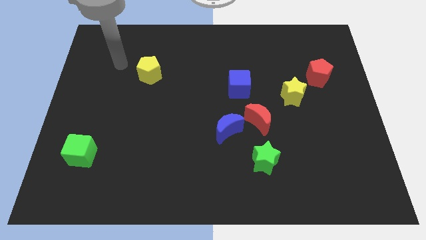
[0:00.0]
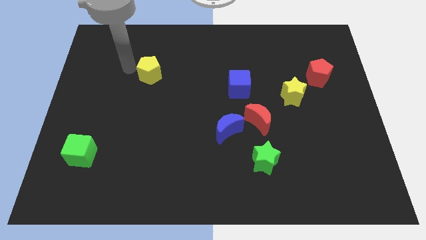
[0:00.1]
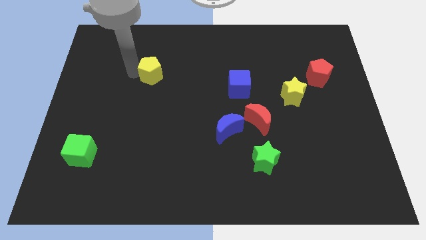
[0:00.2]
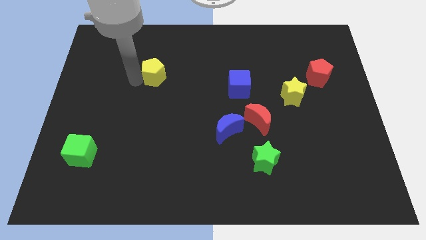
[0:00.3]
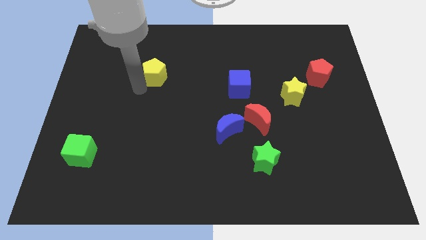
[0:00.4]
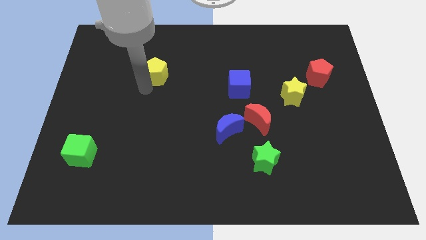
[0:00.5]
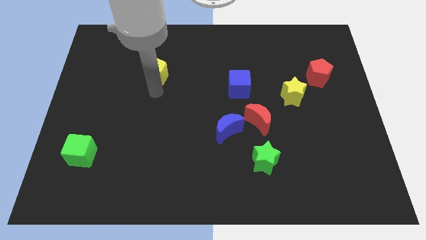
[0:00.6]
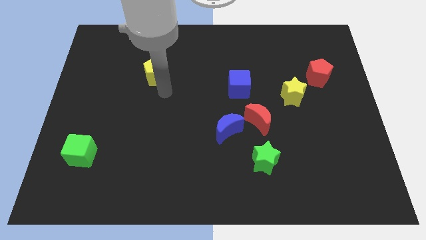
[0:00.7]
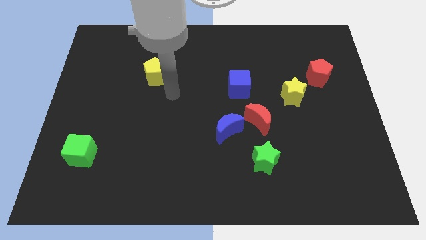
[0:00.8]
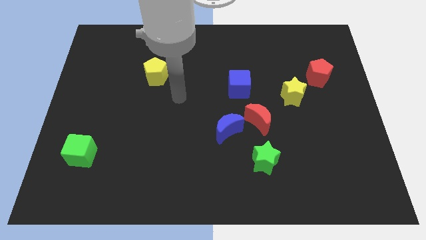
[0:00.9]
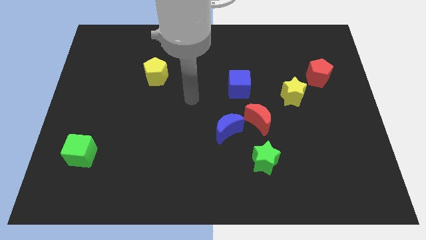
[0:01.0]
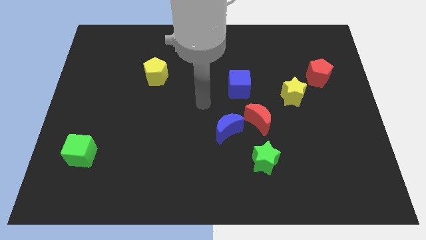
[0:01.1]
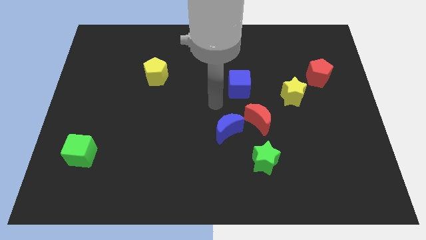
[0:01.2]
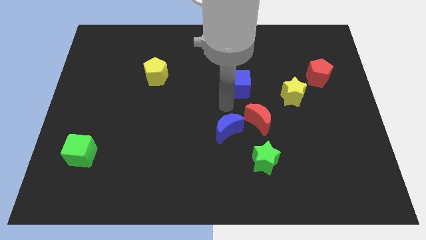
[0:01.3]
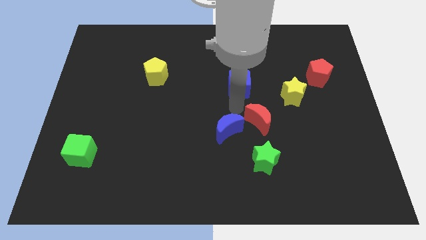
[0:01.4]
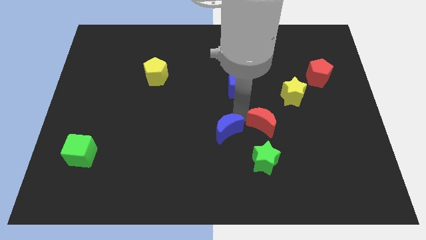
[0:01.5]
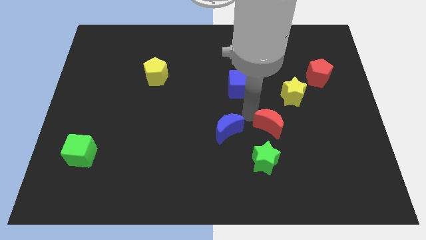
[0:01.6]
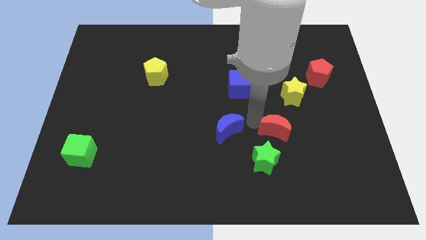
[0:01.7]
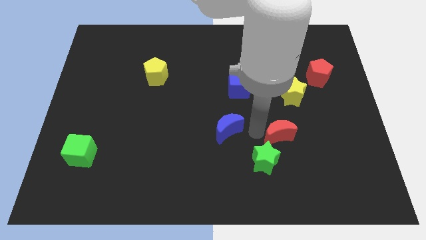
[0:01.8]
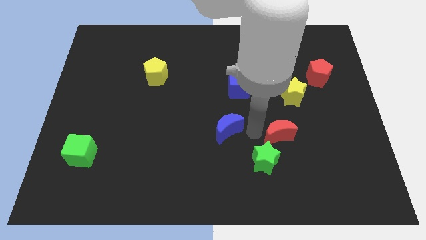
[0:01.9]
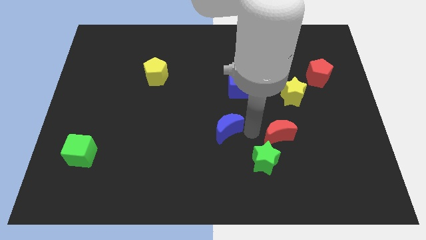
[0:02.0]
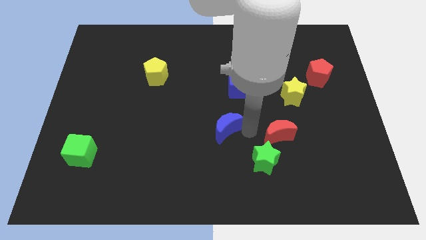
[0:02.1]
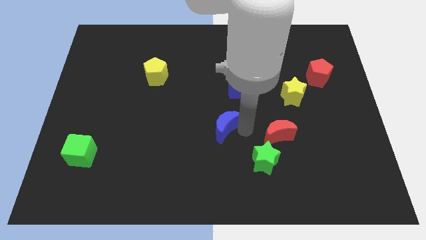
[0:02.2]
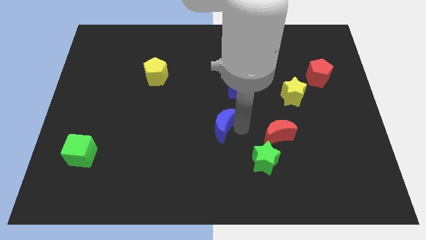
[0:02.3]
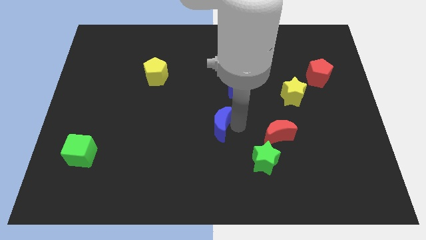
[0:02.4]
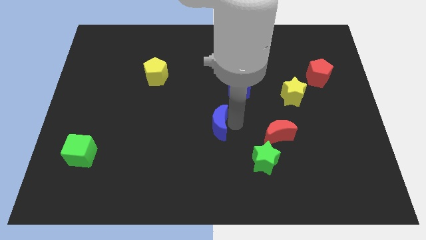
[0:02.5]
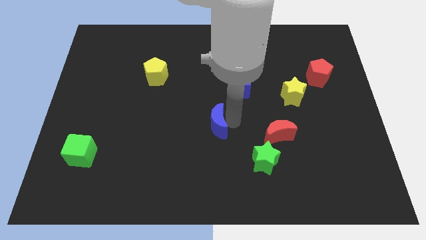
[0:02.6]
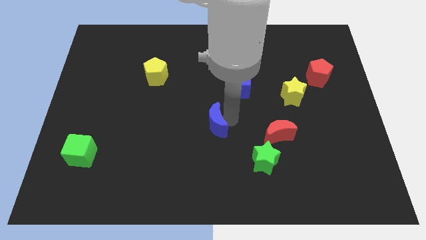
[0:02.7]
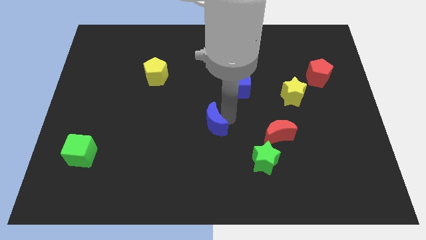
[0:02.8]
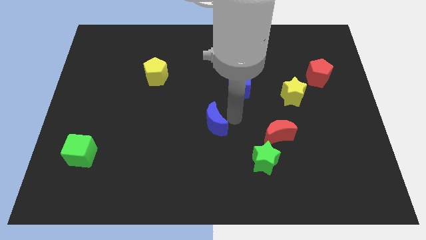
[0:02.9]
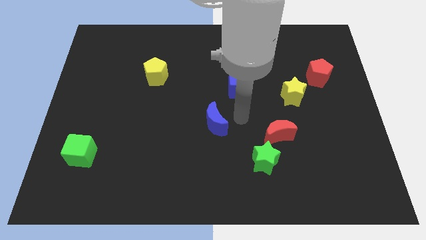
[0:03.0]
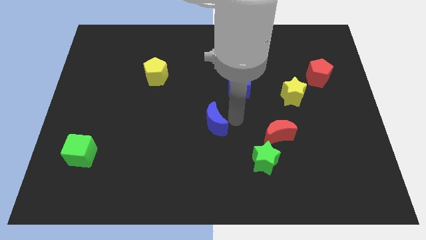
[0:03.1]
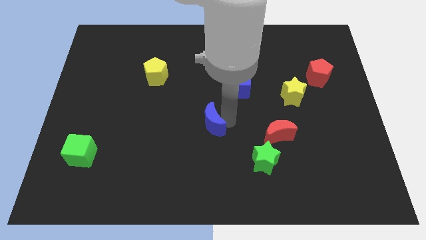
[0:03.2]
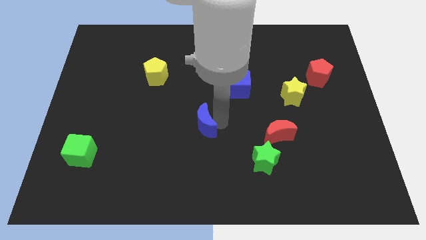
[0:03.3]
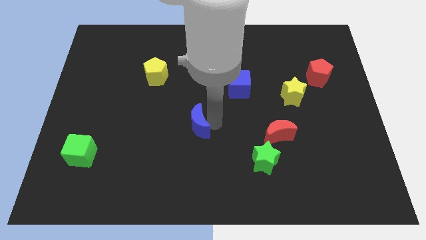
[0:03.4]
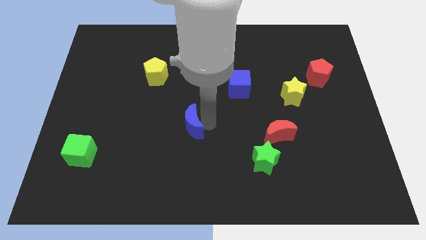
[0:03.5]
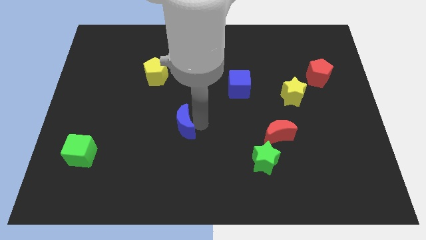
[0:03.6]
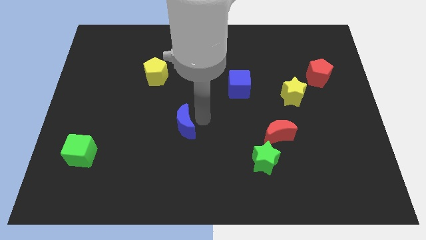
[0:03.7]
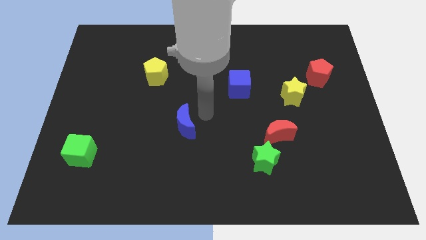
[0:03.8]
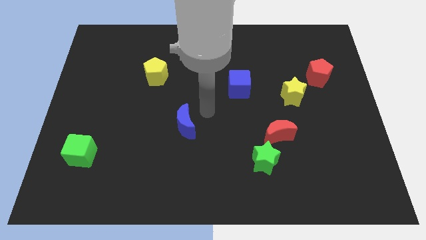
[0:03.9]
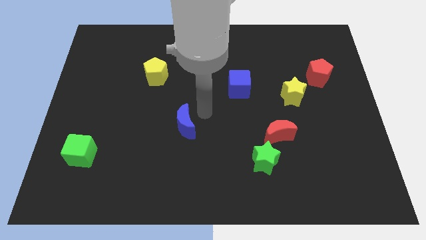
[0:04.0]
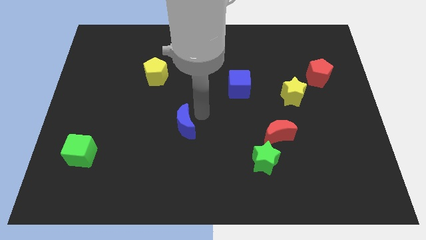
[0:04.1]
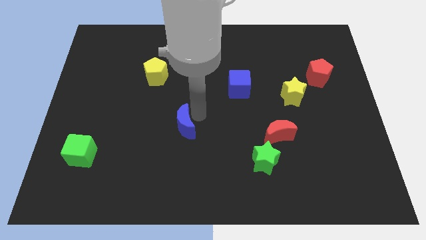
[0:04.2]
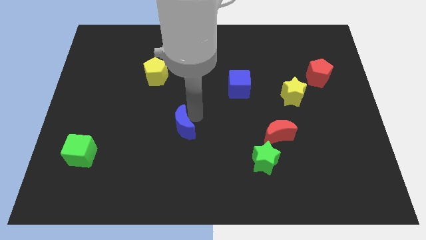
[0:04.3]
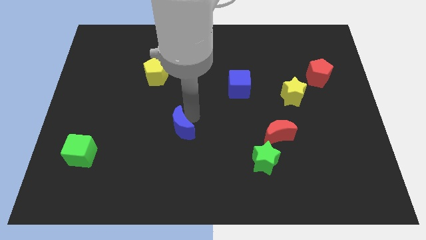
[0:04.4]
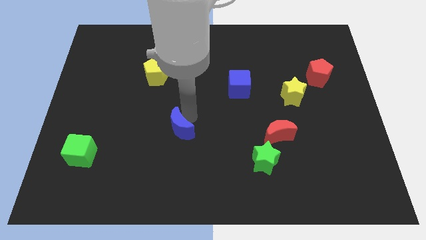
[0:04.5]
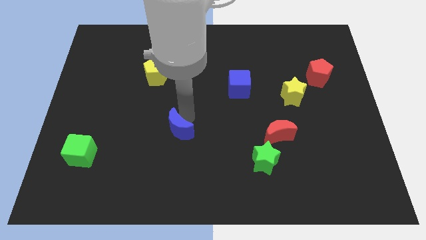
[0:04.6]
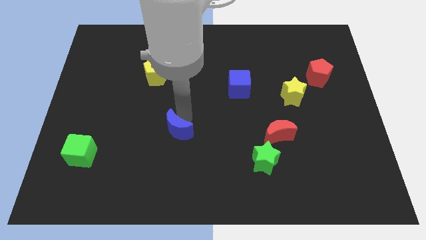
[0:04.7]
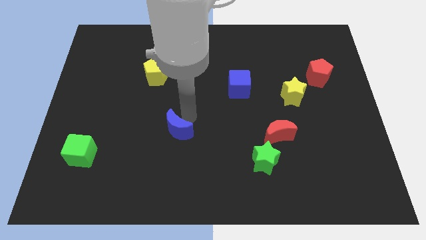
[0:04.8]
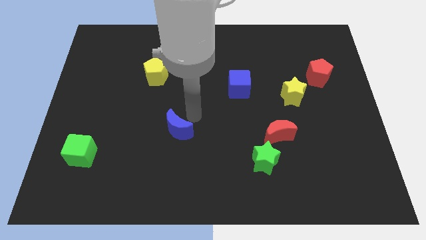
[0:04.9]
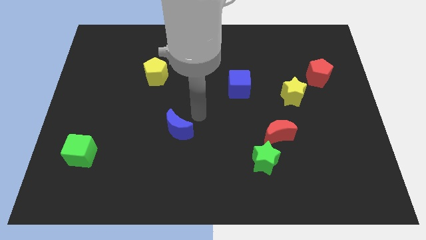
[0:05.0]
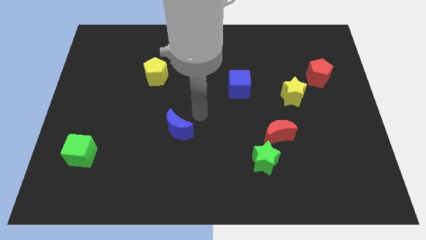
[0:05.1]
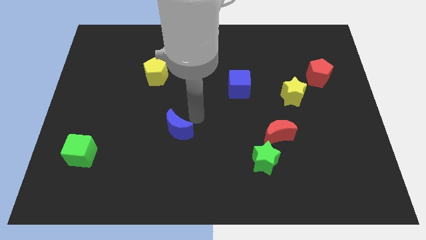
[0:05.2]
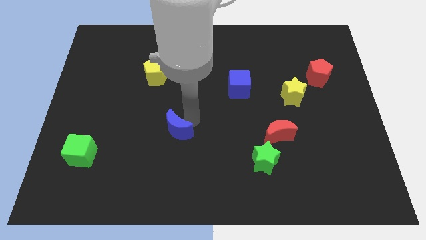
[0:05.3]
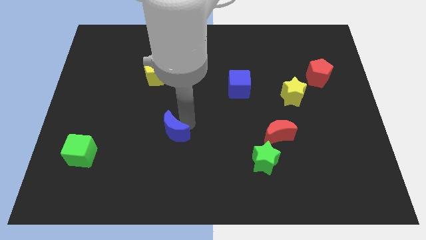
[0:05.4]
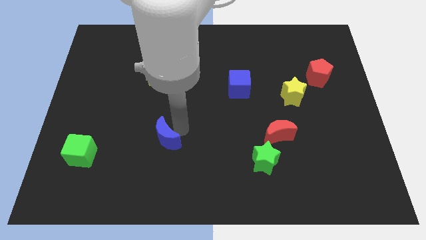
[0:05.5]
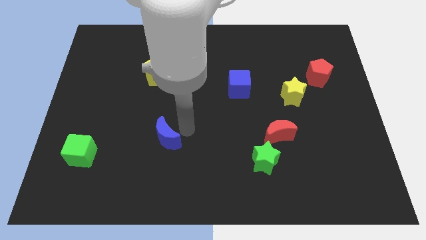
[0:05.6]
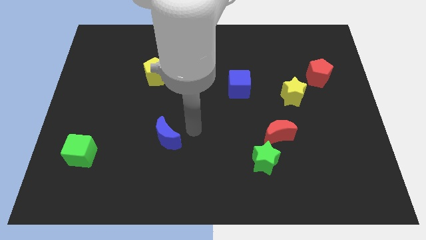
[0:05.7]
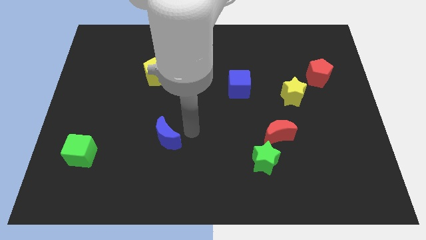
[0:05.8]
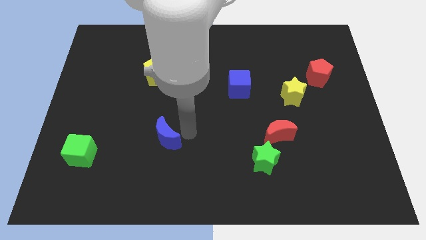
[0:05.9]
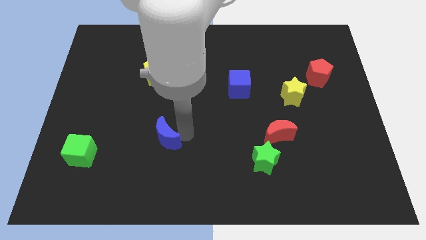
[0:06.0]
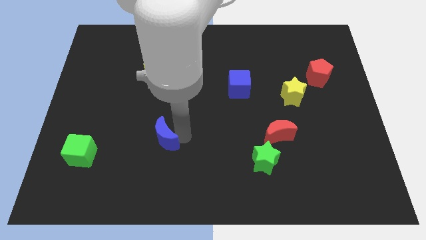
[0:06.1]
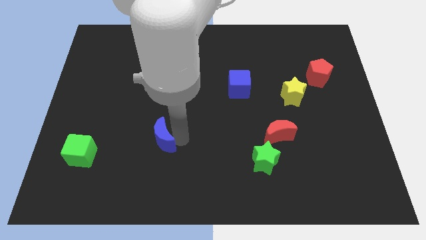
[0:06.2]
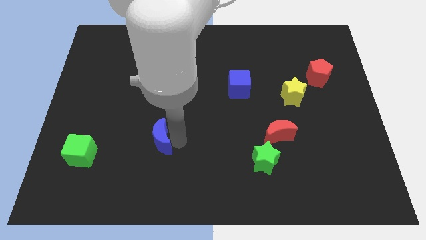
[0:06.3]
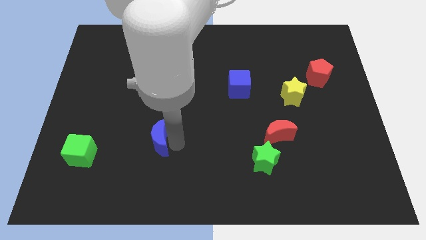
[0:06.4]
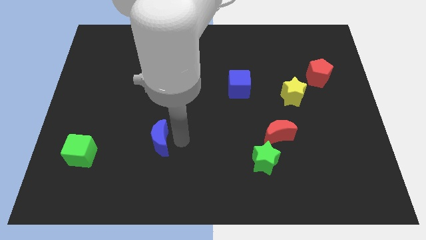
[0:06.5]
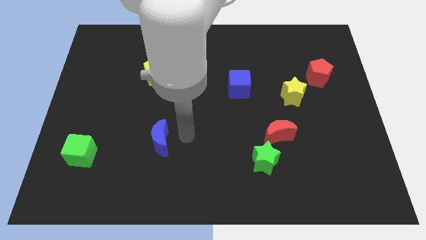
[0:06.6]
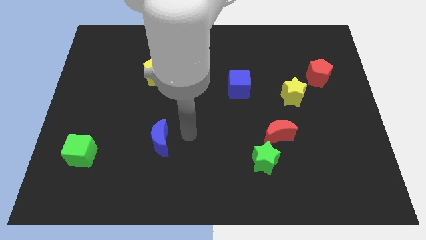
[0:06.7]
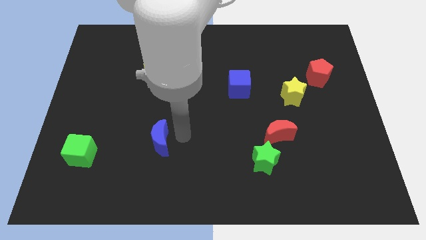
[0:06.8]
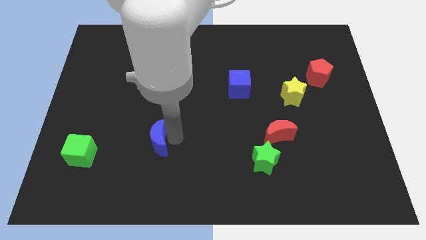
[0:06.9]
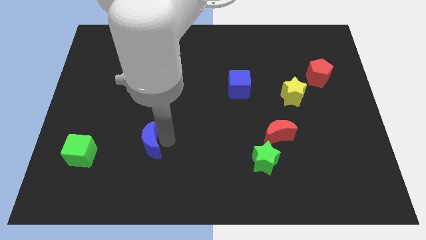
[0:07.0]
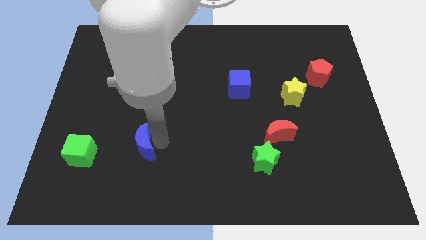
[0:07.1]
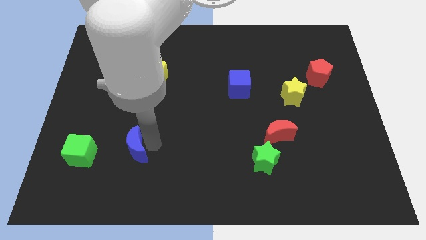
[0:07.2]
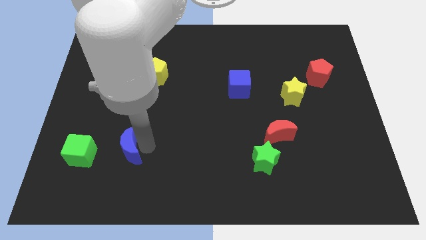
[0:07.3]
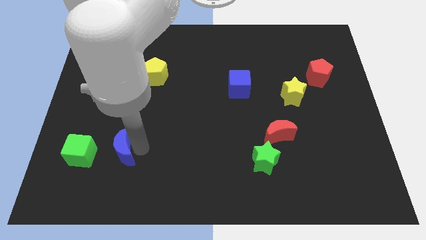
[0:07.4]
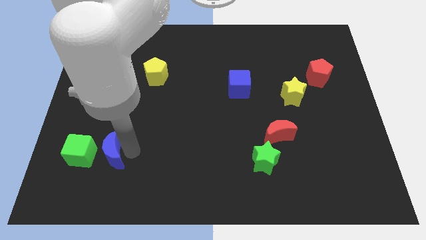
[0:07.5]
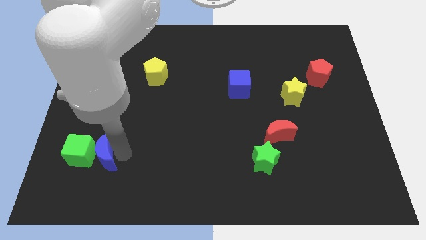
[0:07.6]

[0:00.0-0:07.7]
slide the blue moon close to the green cube
